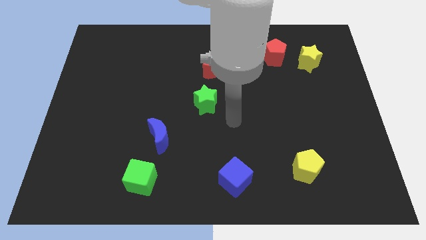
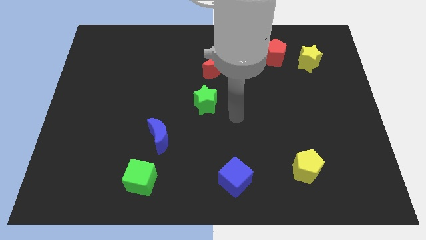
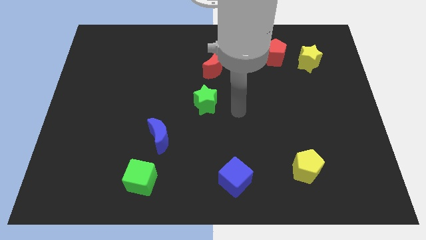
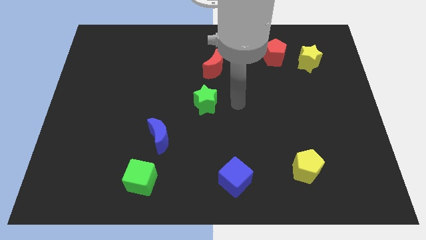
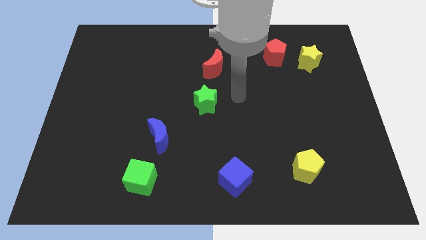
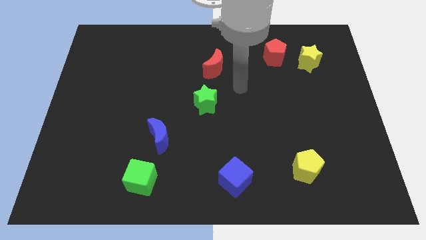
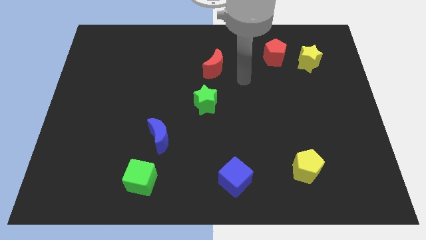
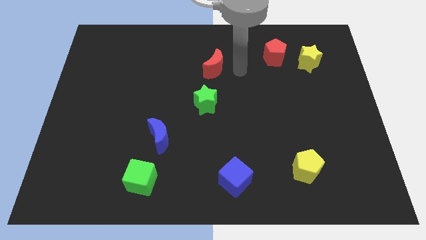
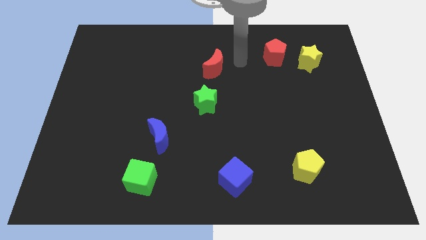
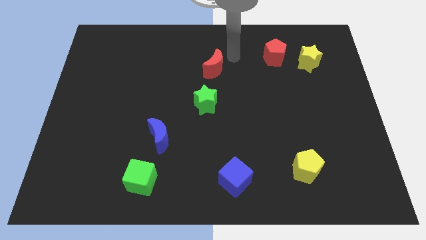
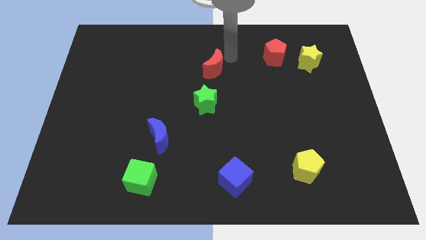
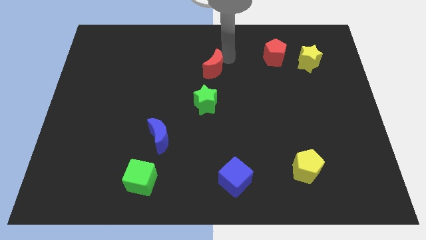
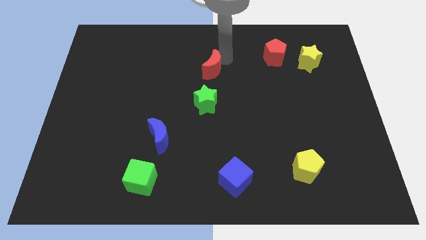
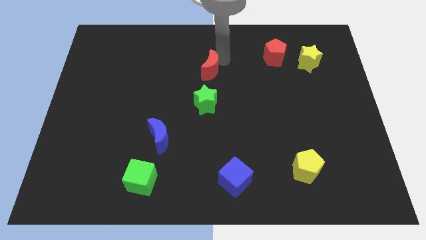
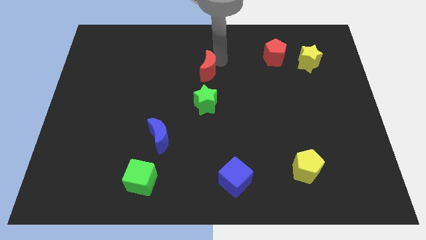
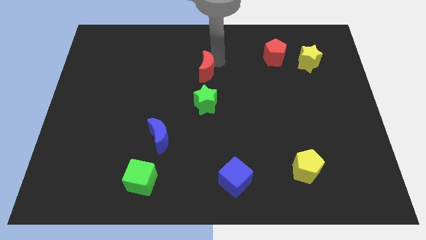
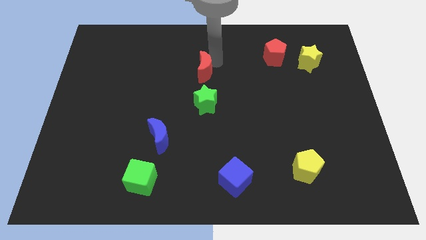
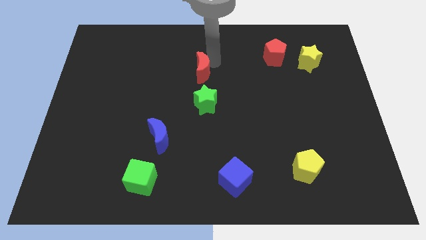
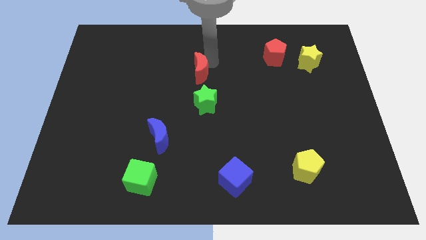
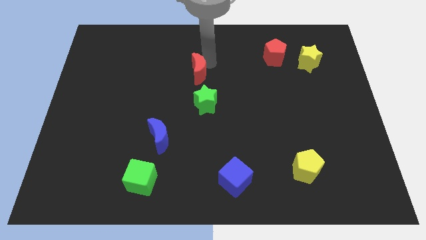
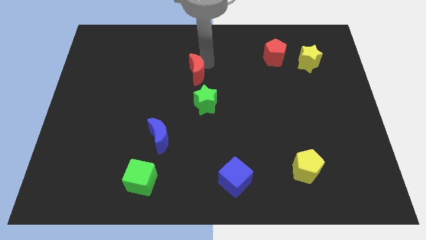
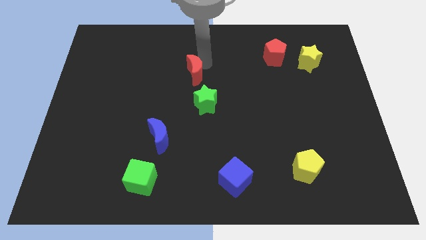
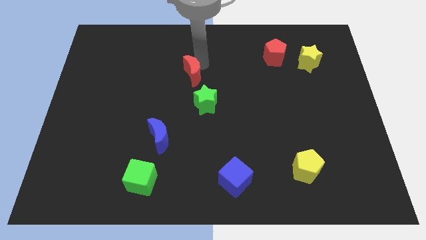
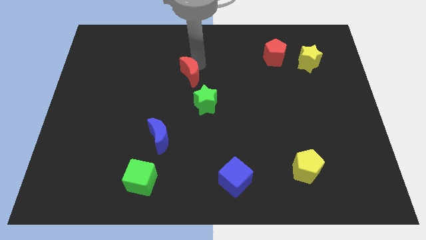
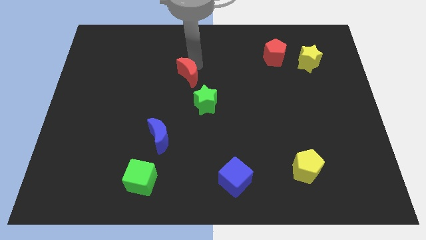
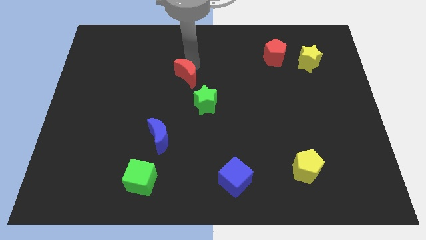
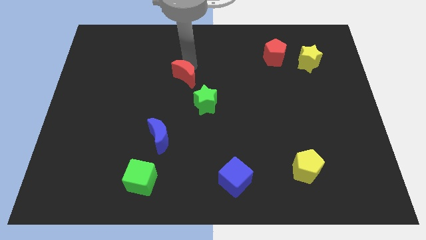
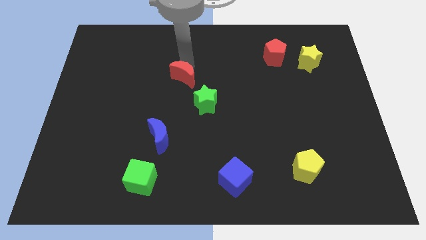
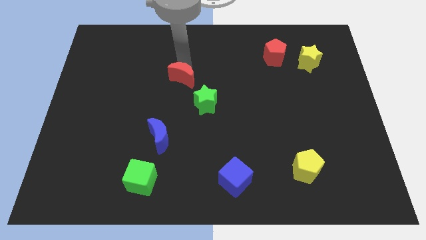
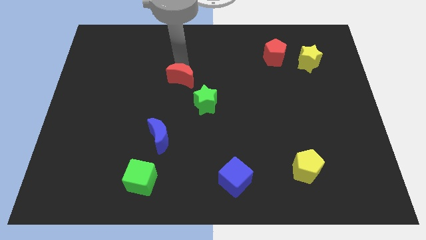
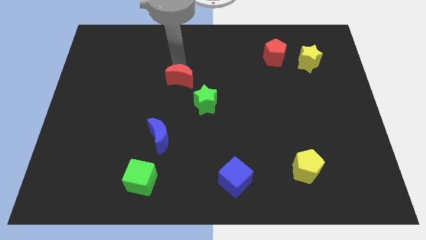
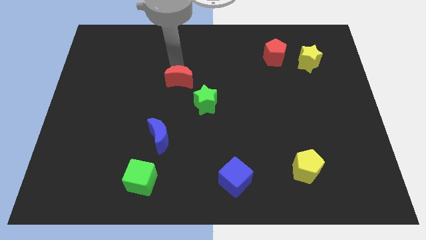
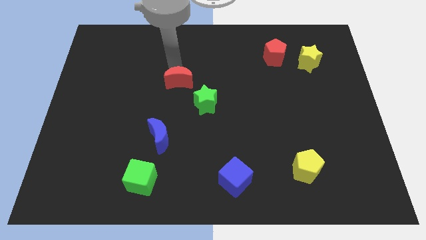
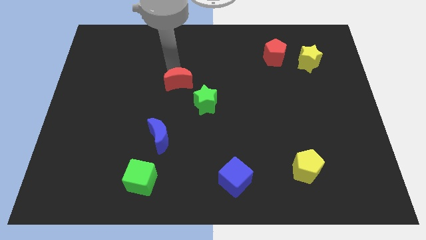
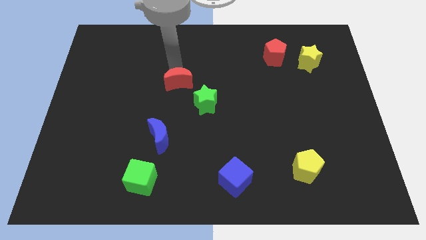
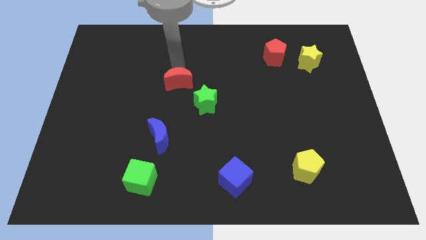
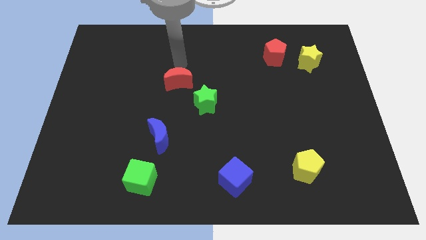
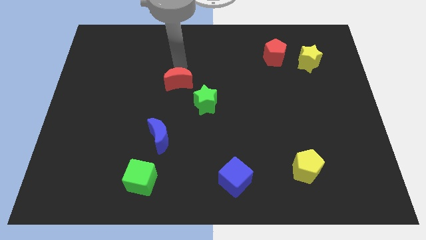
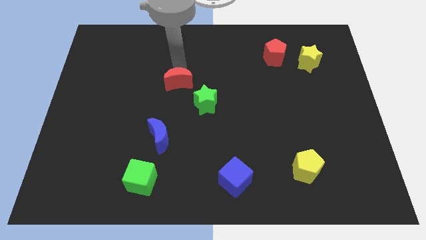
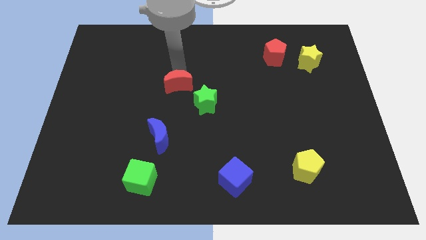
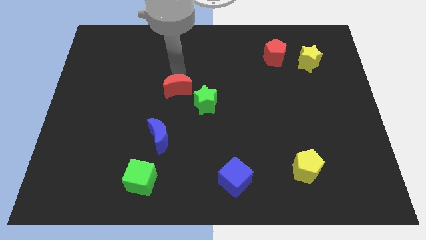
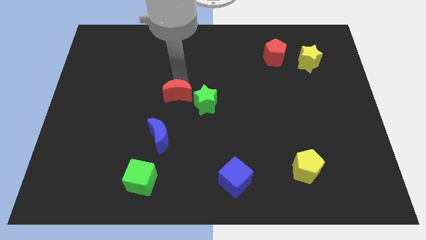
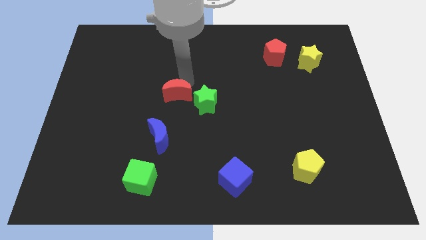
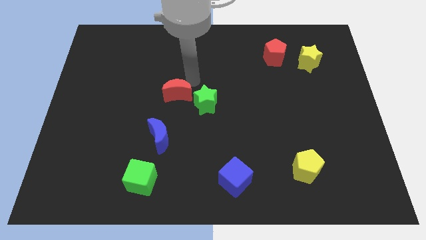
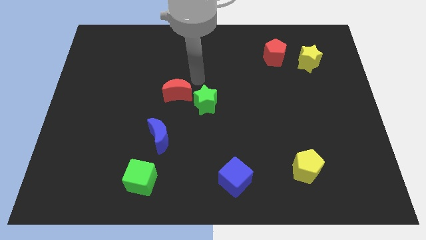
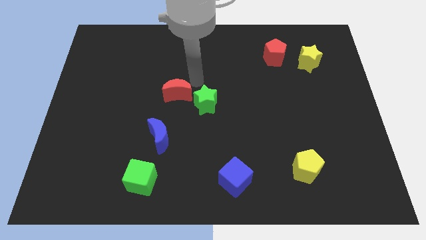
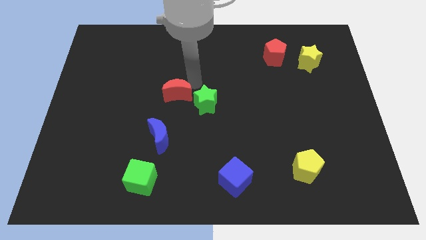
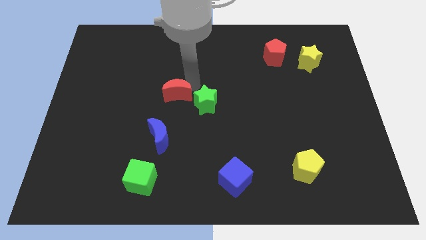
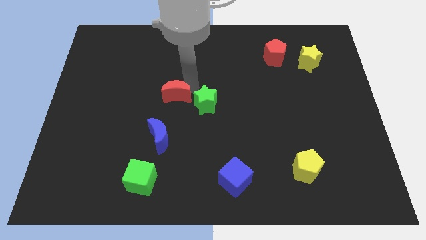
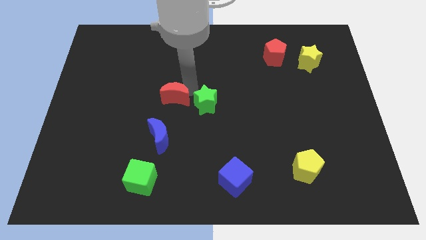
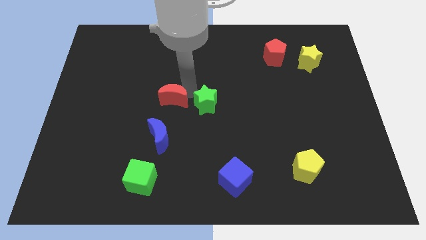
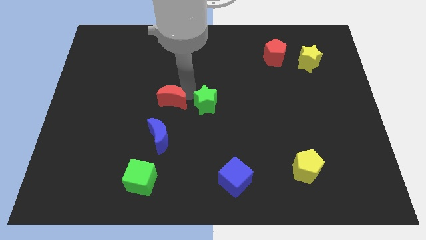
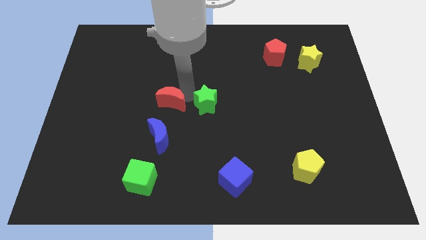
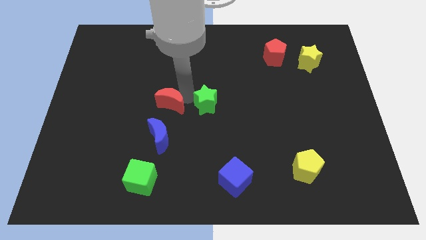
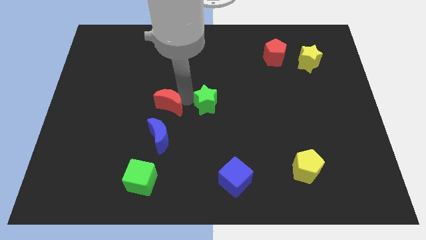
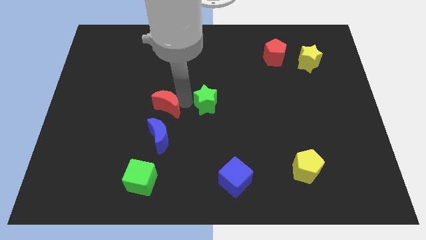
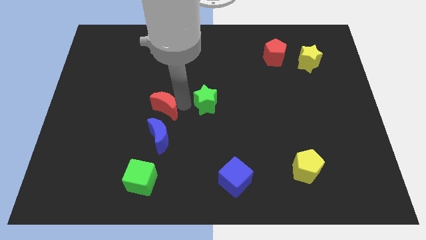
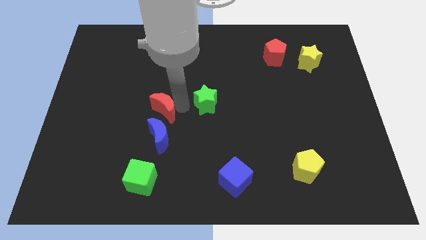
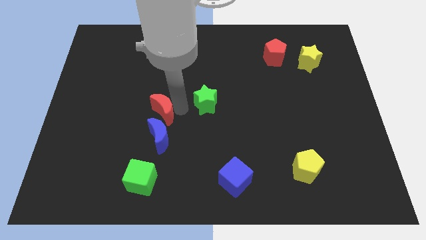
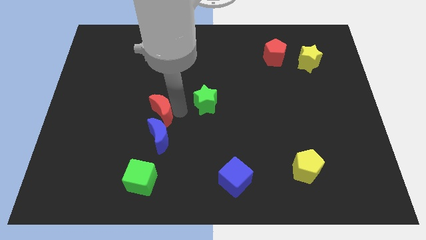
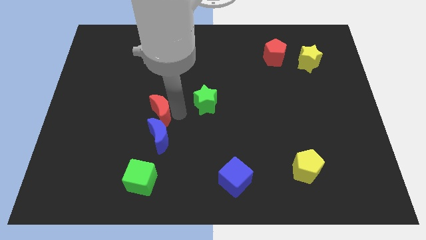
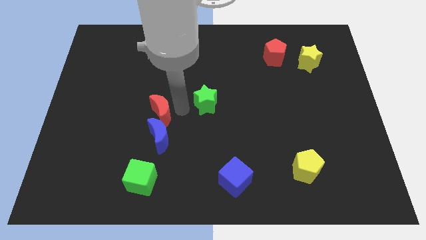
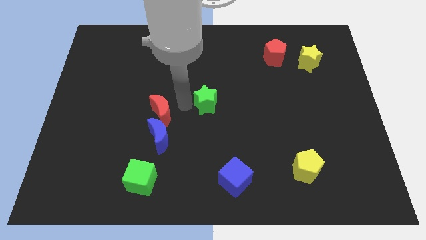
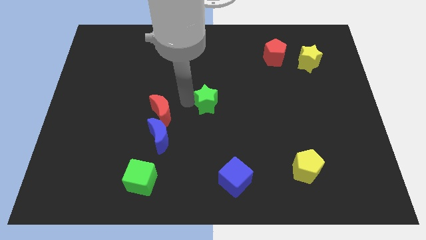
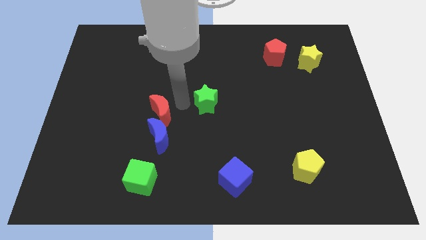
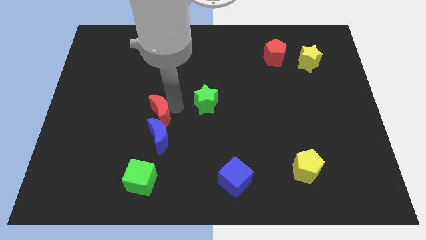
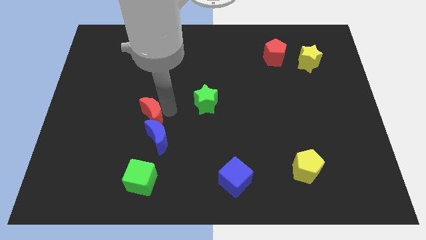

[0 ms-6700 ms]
push the red moon diagonally down and to the left

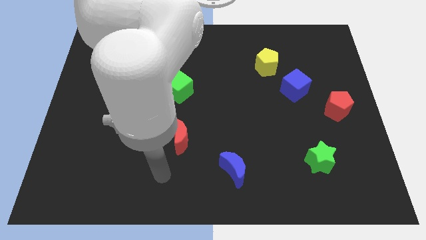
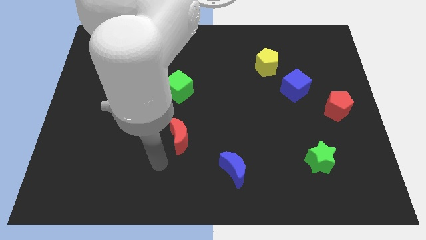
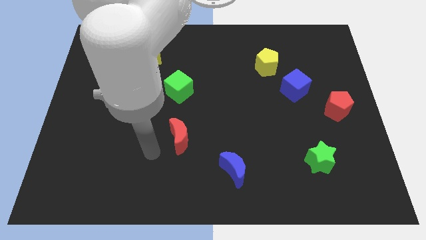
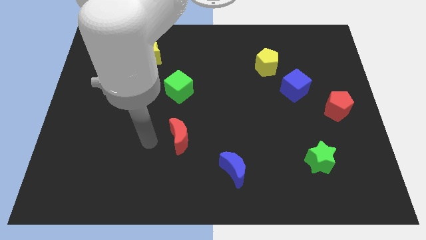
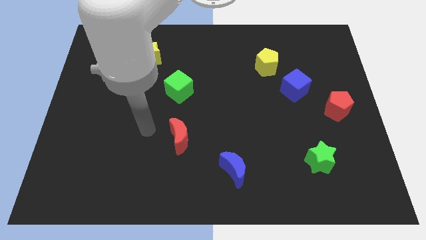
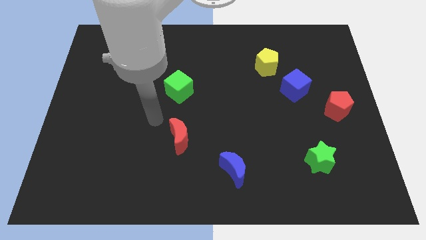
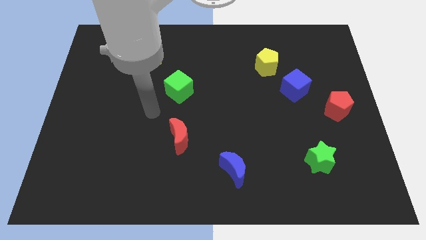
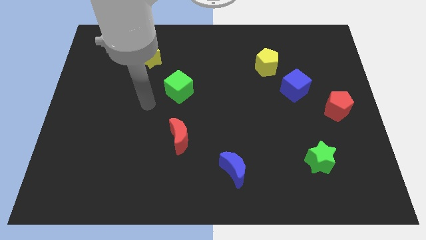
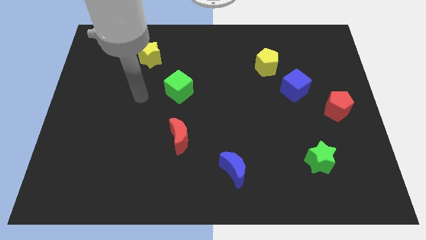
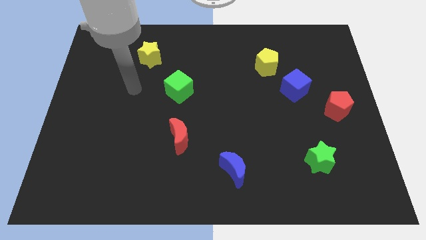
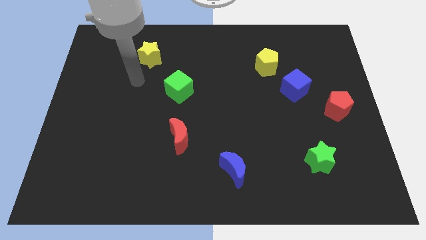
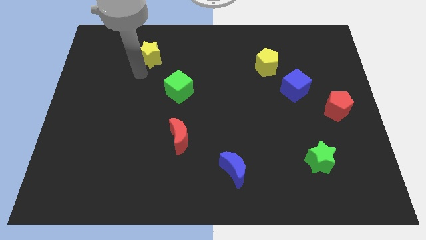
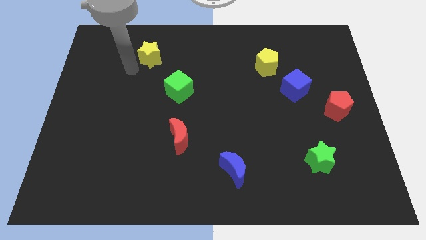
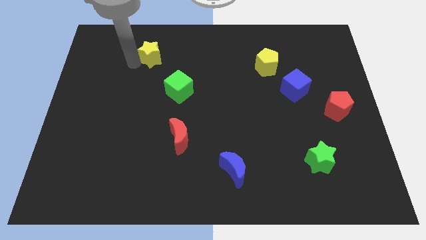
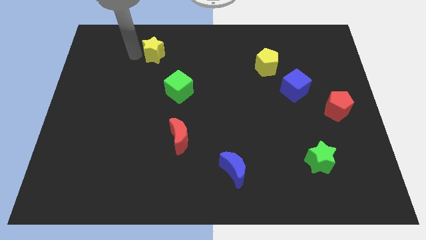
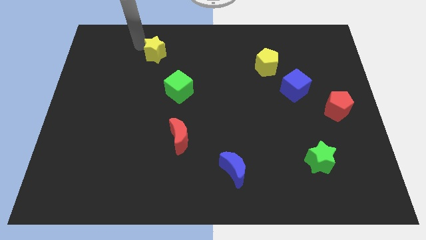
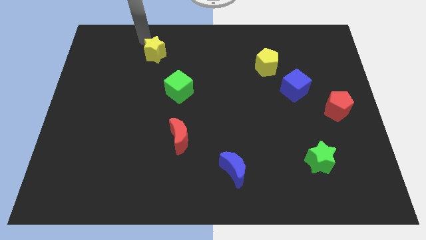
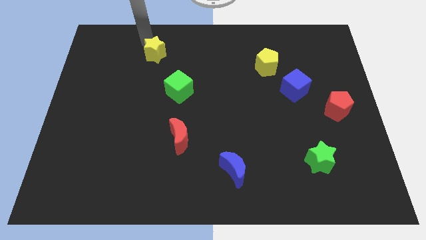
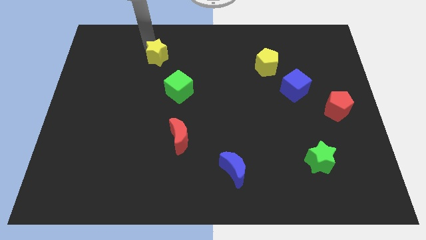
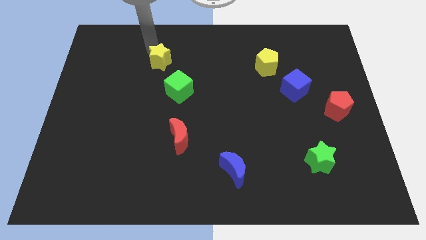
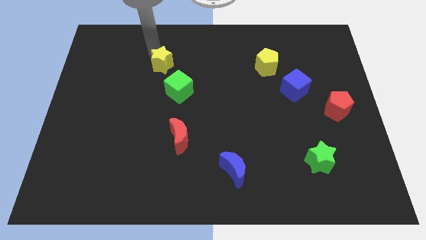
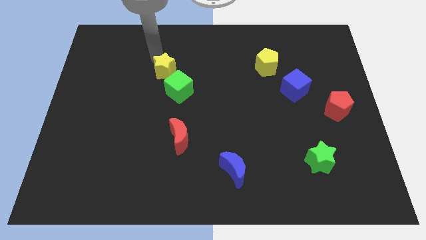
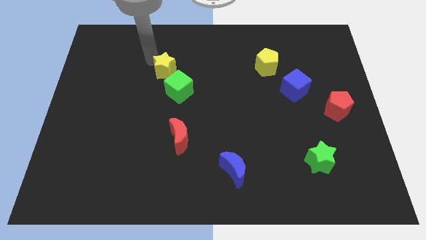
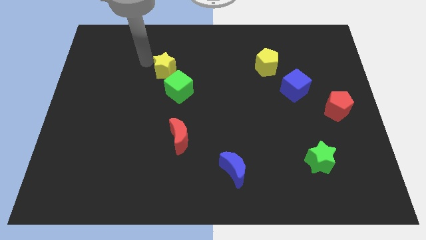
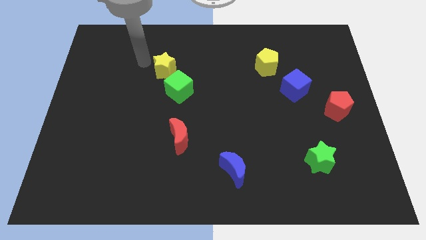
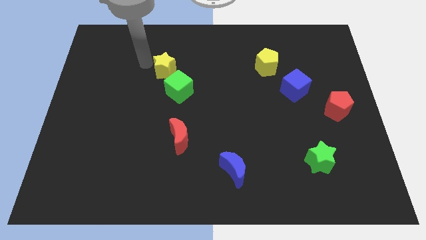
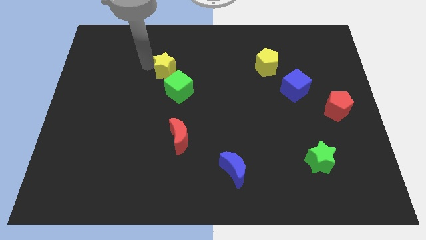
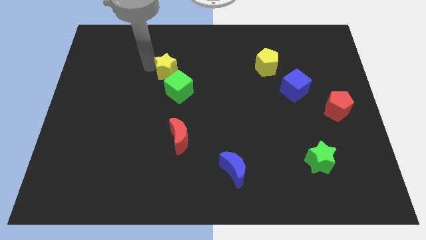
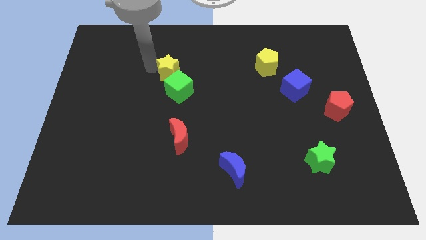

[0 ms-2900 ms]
slightly slide the yellow star diagonally down and right
